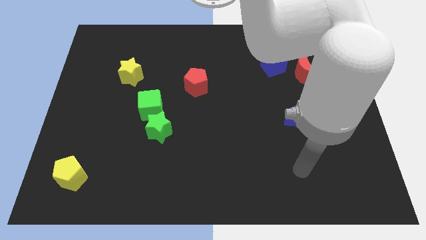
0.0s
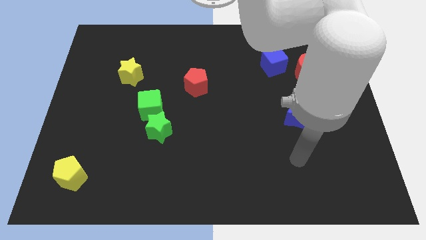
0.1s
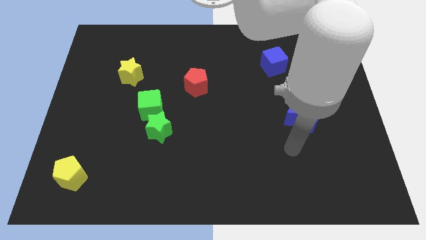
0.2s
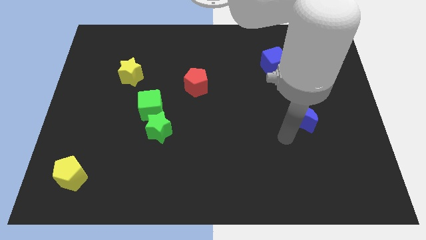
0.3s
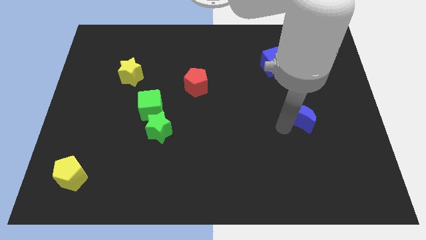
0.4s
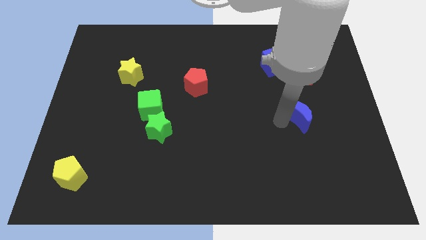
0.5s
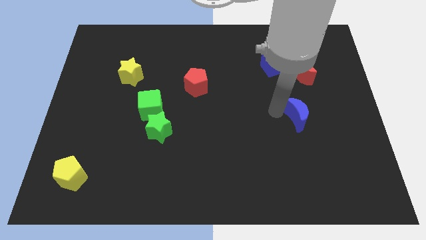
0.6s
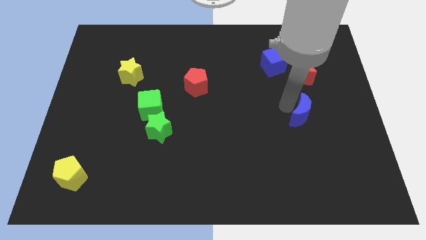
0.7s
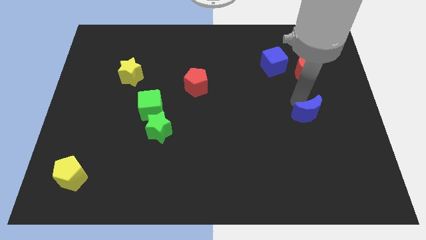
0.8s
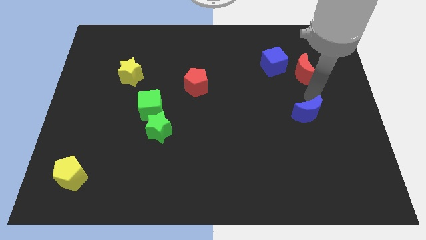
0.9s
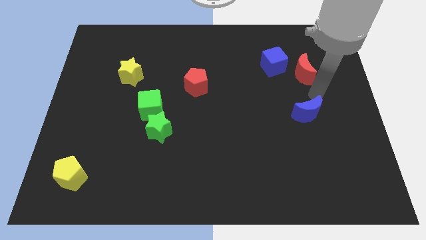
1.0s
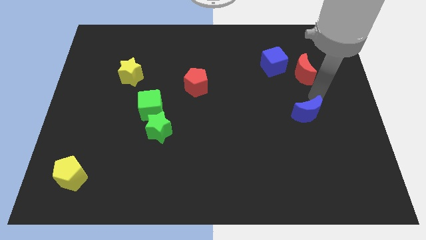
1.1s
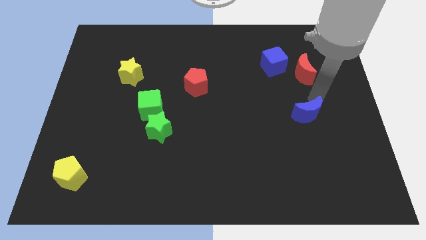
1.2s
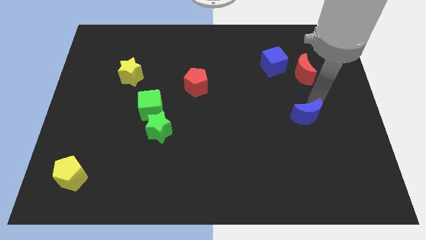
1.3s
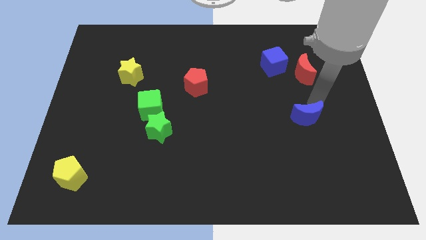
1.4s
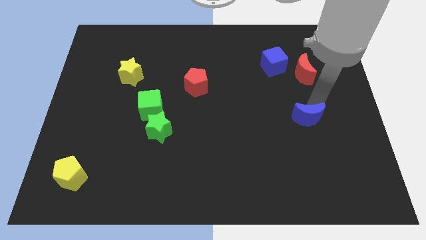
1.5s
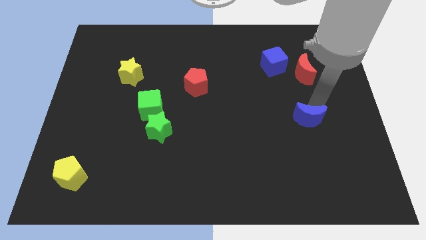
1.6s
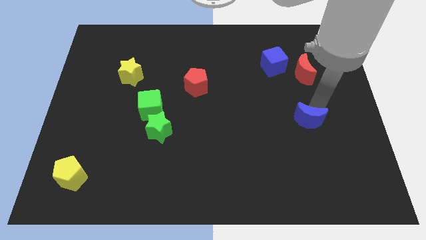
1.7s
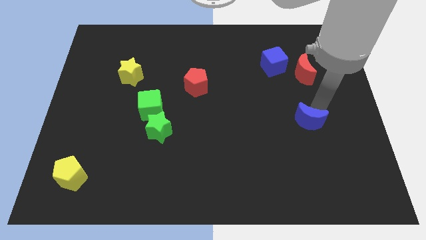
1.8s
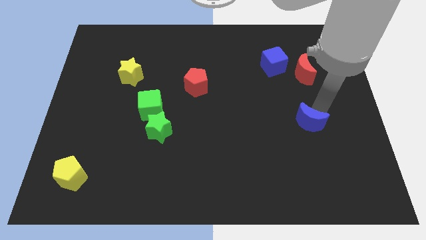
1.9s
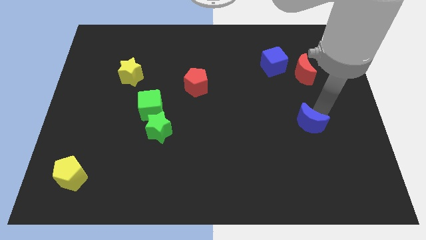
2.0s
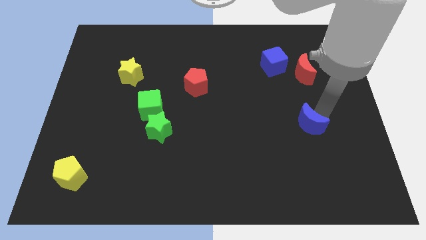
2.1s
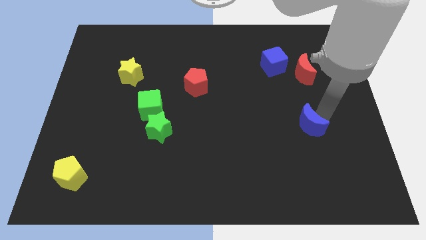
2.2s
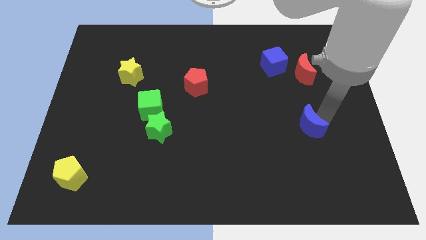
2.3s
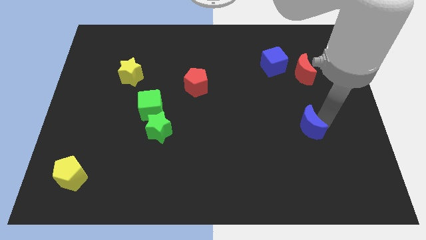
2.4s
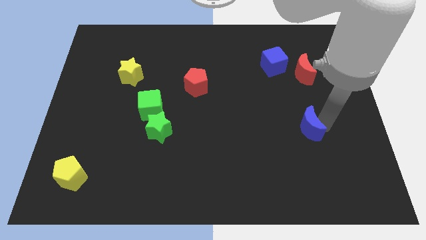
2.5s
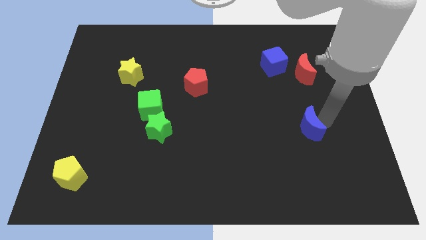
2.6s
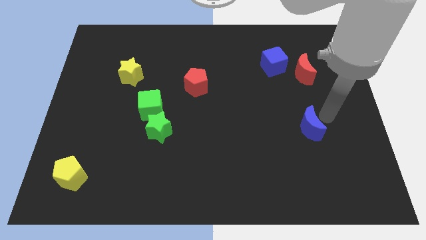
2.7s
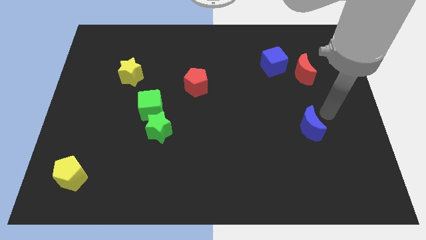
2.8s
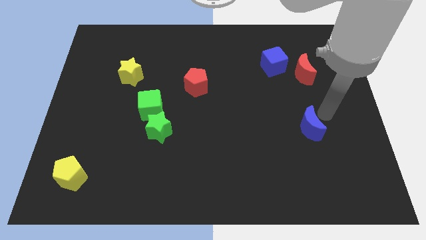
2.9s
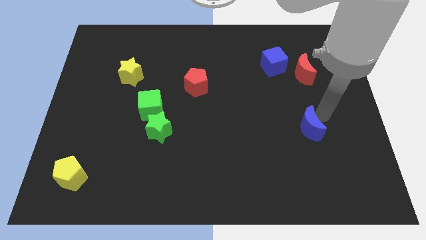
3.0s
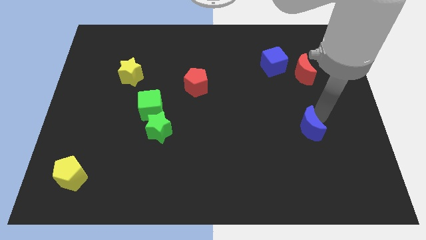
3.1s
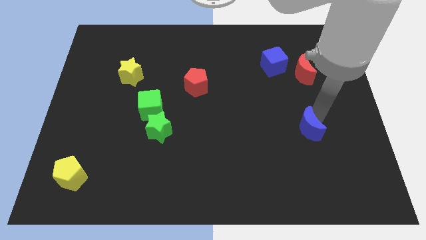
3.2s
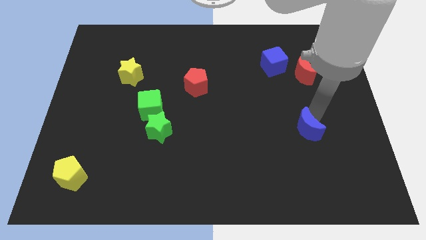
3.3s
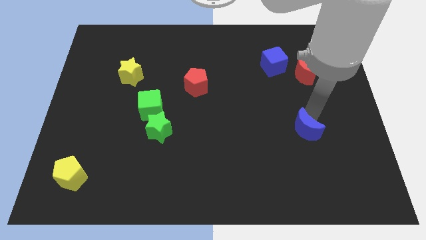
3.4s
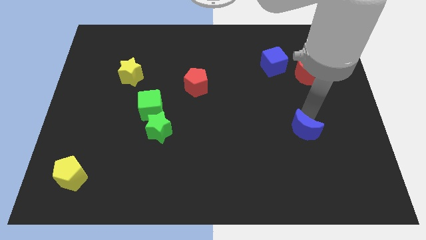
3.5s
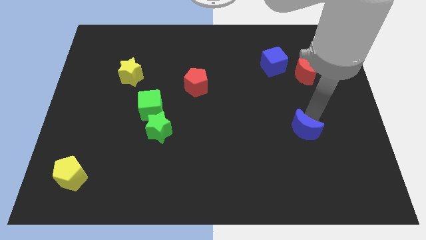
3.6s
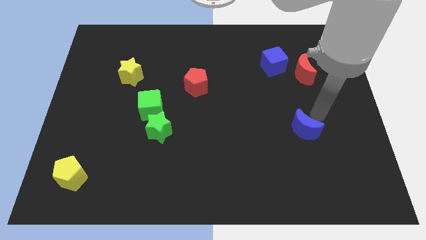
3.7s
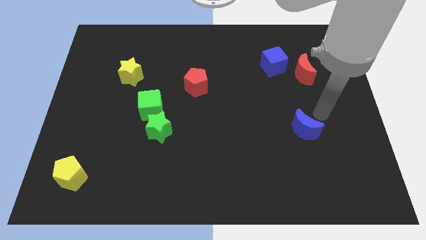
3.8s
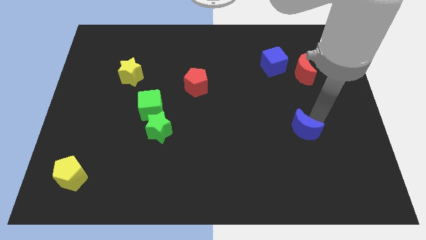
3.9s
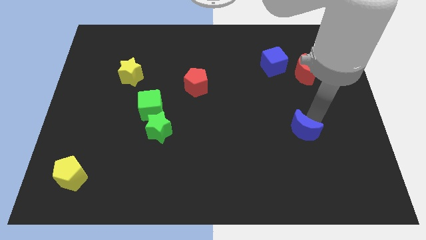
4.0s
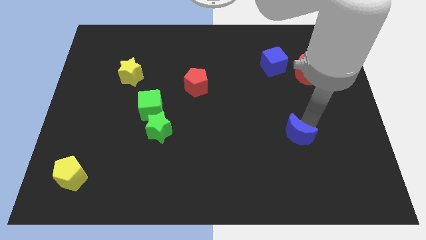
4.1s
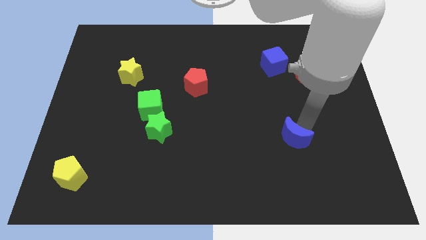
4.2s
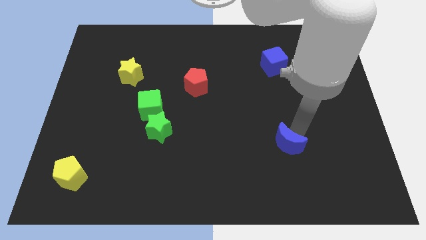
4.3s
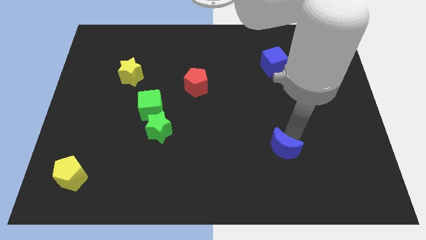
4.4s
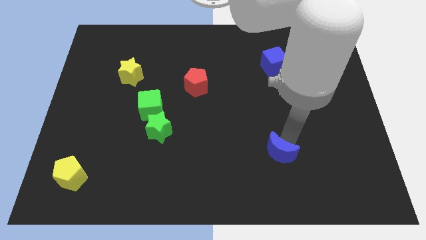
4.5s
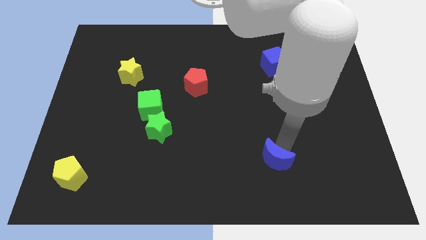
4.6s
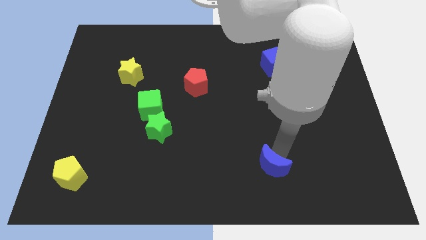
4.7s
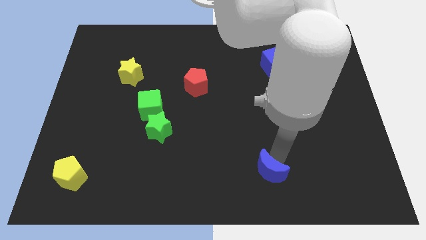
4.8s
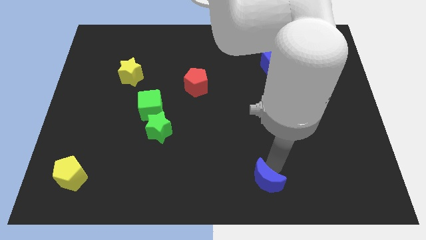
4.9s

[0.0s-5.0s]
slide the blue moon to the bottom side

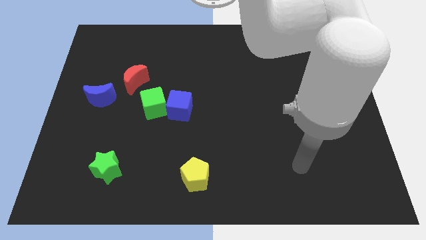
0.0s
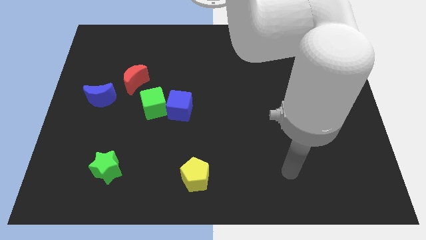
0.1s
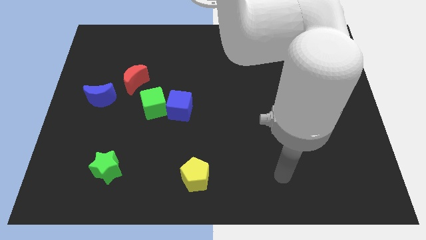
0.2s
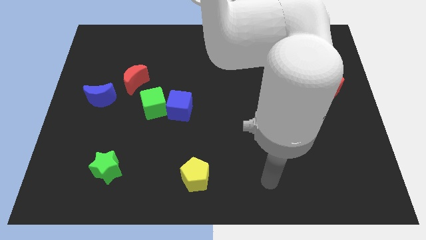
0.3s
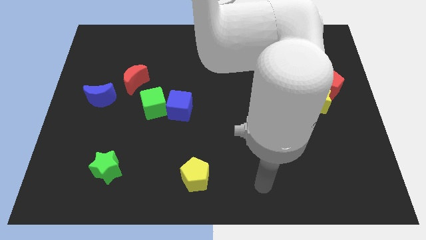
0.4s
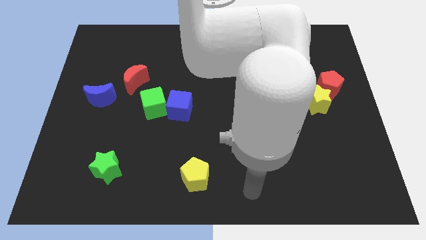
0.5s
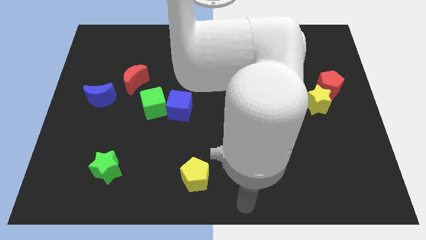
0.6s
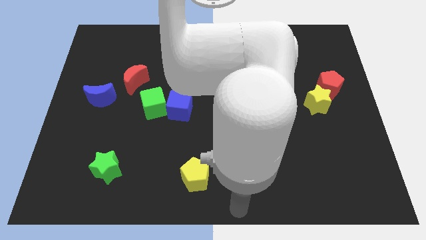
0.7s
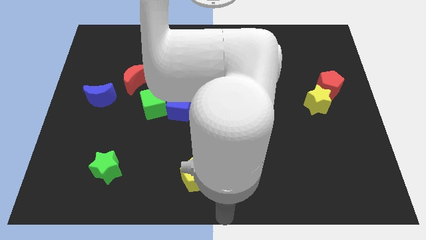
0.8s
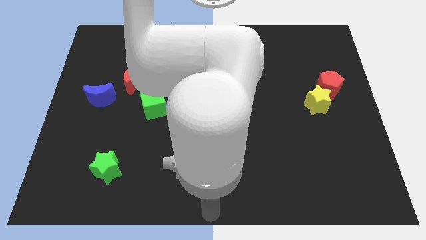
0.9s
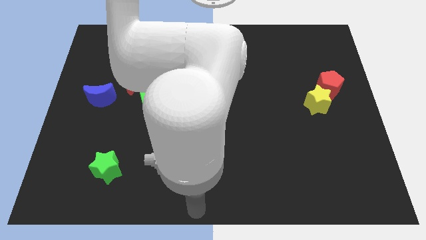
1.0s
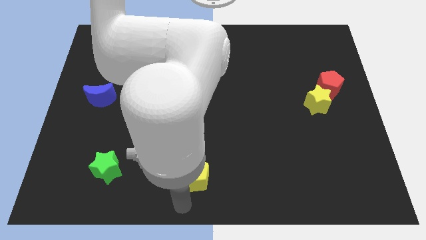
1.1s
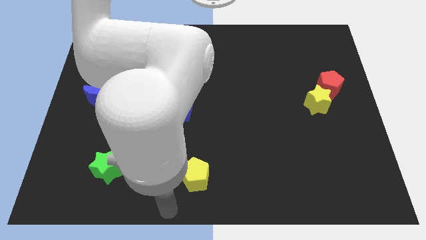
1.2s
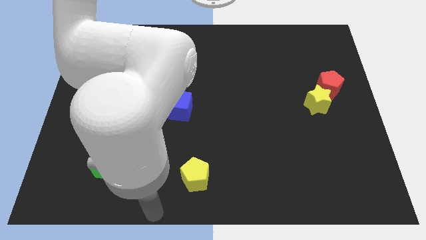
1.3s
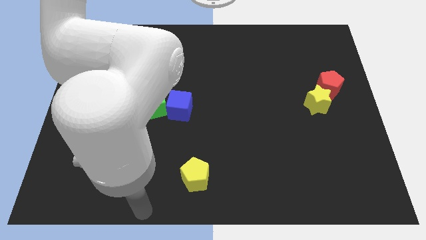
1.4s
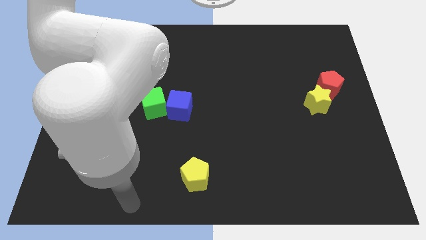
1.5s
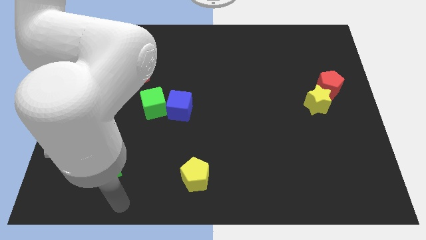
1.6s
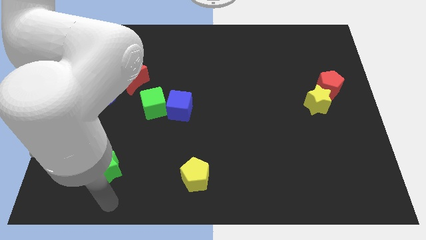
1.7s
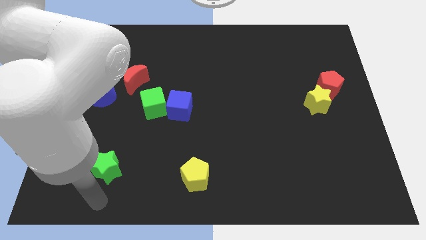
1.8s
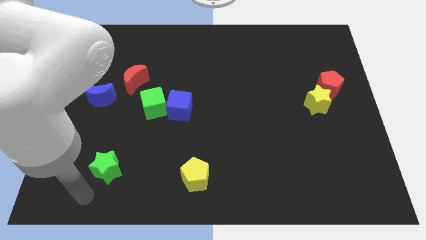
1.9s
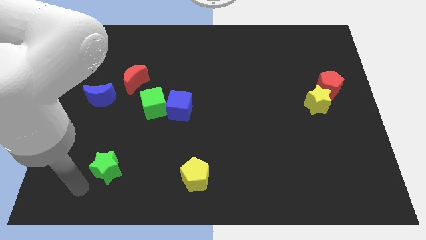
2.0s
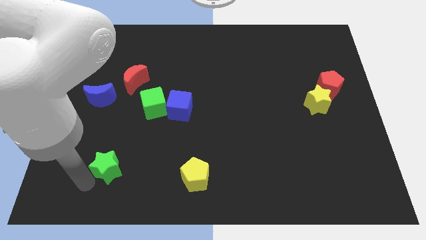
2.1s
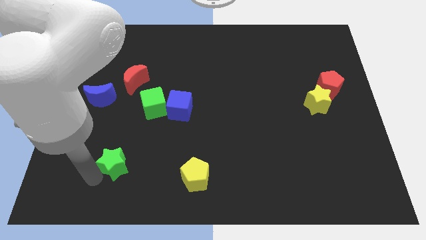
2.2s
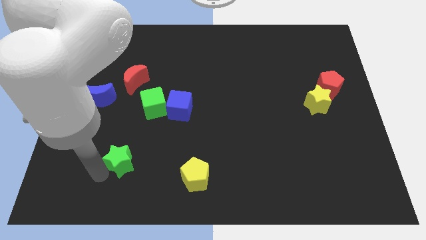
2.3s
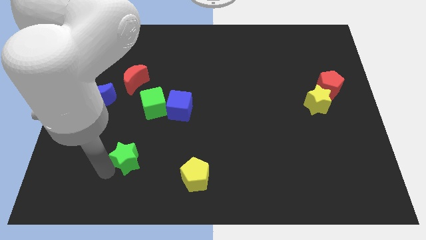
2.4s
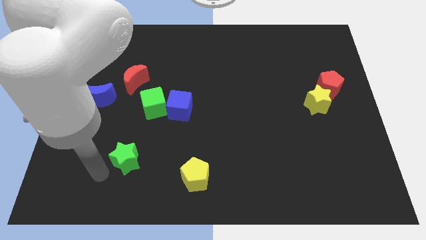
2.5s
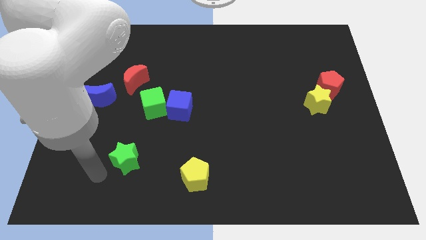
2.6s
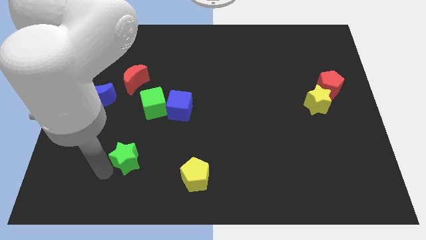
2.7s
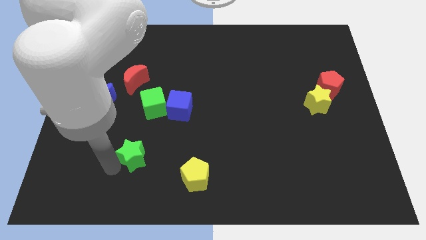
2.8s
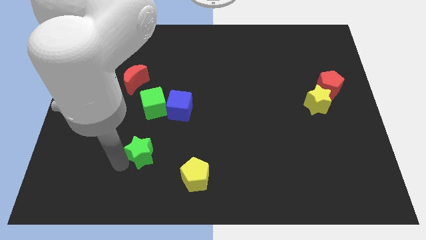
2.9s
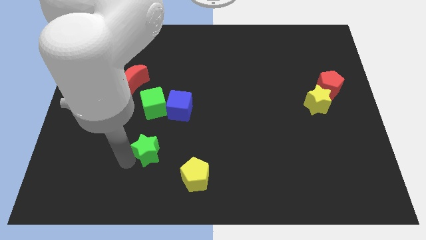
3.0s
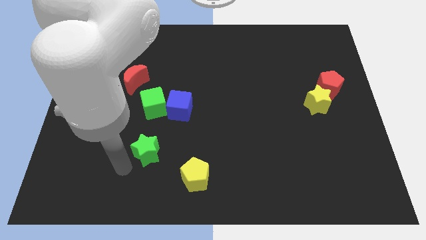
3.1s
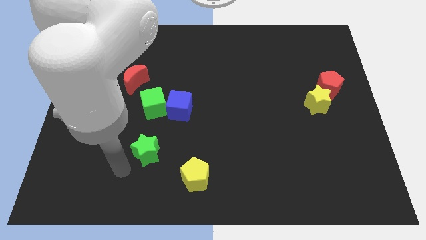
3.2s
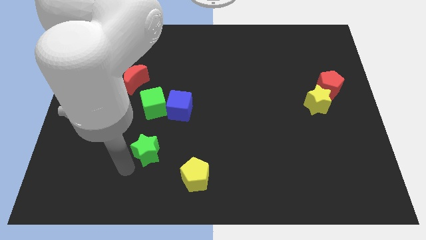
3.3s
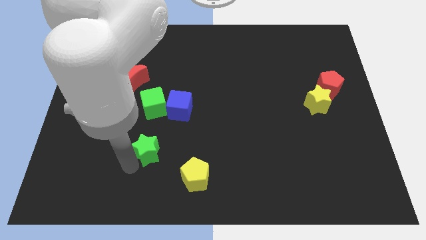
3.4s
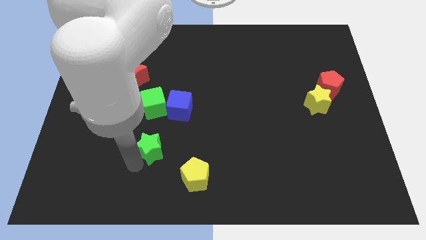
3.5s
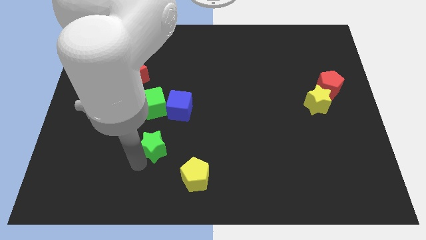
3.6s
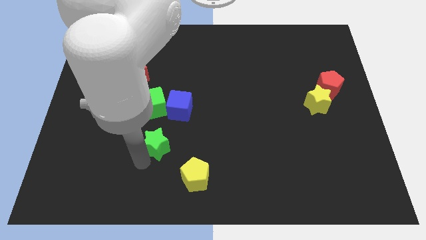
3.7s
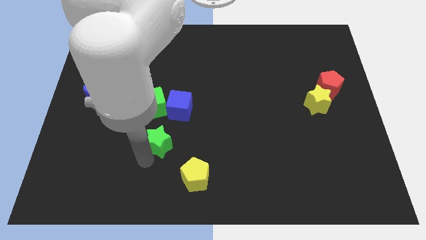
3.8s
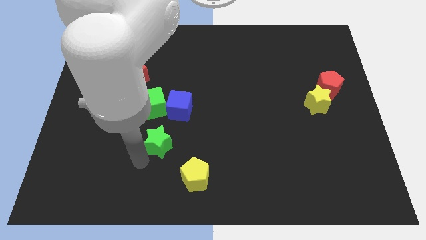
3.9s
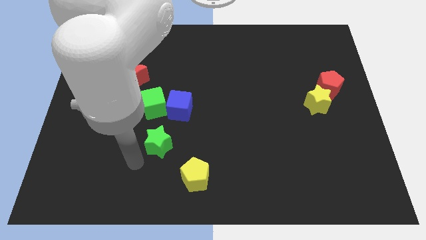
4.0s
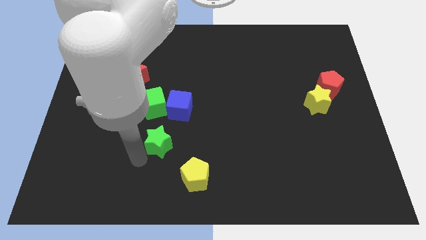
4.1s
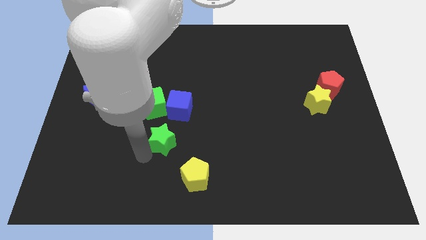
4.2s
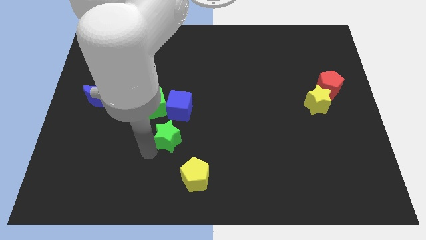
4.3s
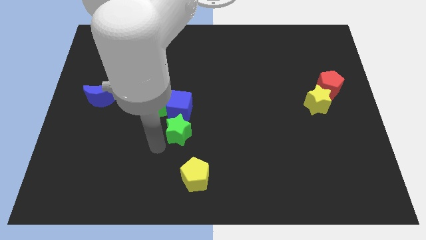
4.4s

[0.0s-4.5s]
put the green star to the middle
